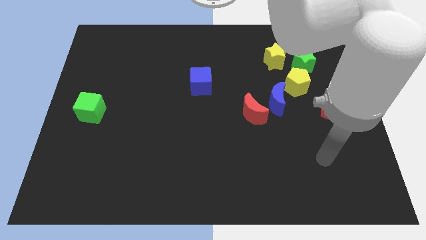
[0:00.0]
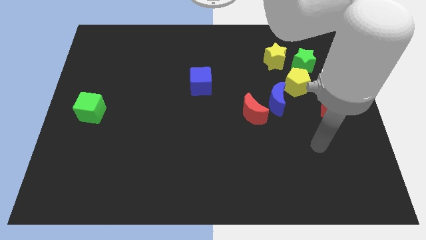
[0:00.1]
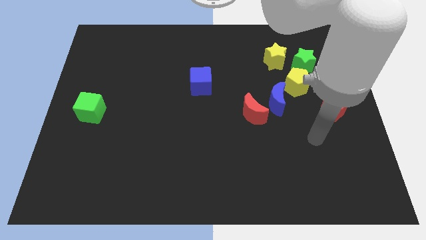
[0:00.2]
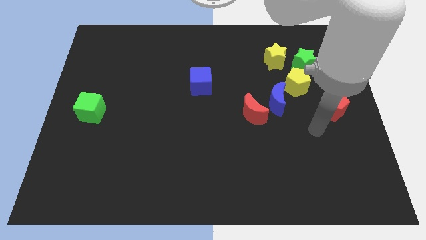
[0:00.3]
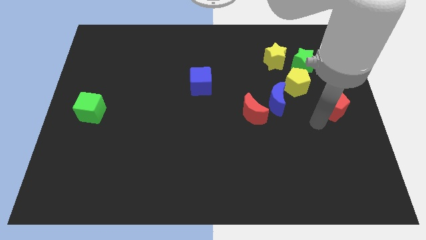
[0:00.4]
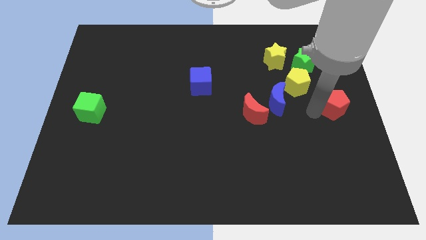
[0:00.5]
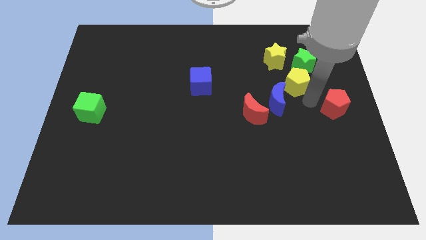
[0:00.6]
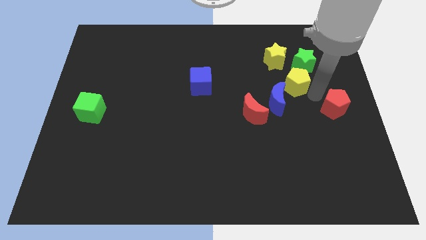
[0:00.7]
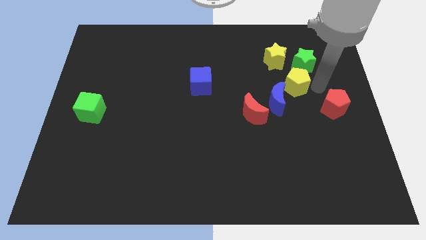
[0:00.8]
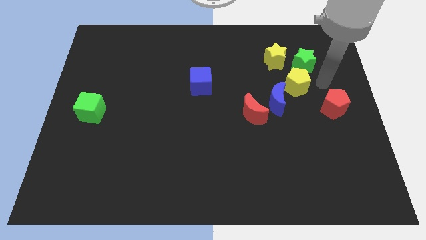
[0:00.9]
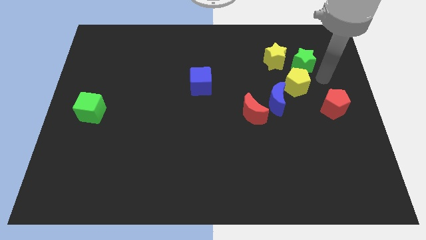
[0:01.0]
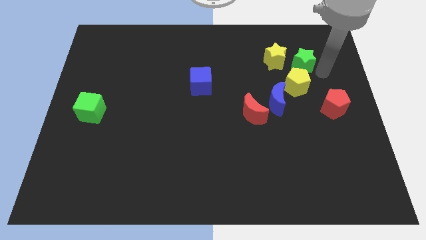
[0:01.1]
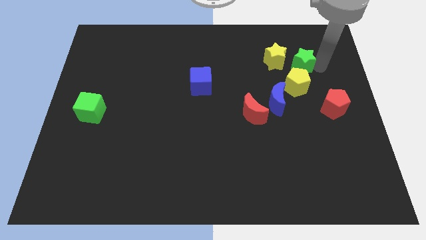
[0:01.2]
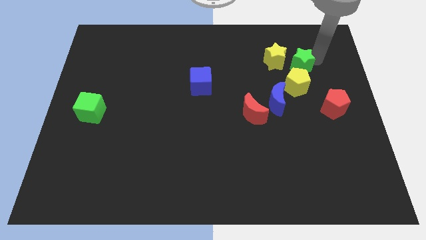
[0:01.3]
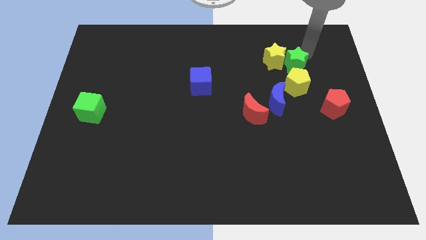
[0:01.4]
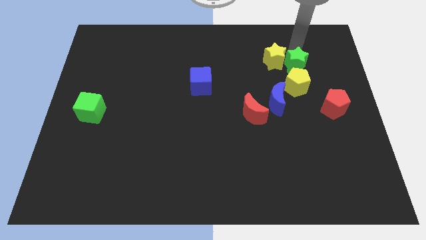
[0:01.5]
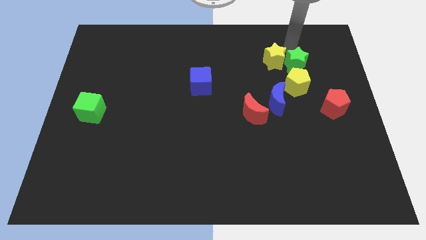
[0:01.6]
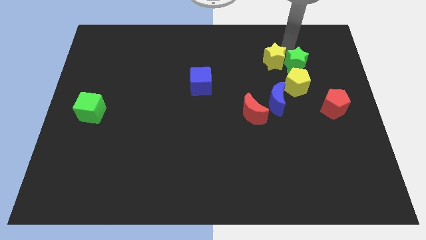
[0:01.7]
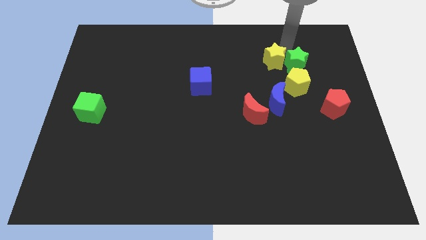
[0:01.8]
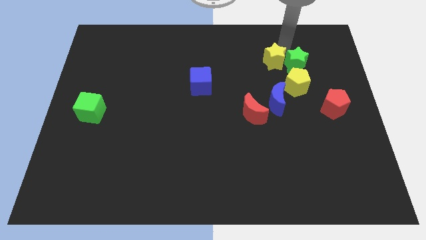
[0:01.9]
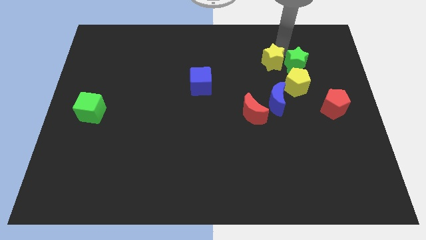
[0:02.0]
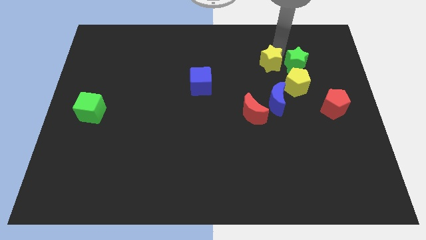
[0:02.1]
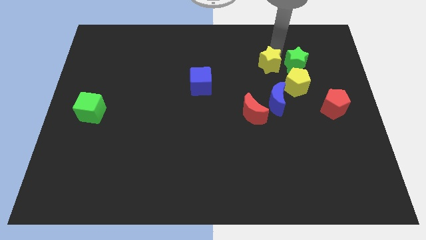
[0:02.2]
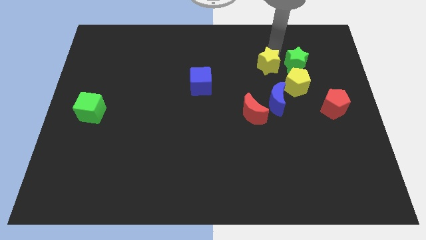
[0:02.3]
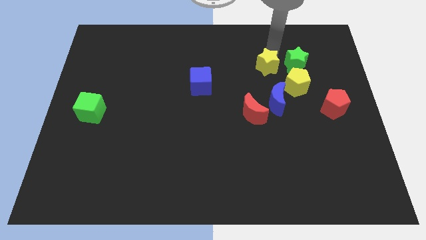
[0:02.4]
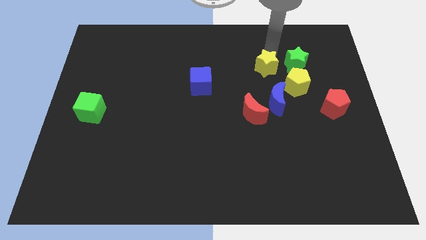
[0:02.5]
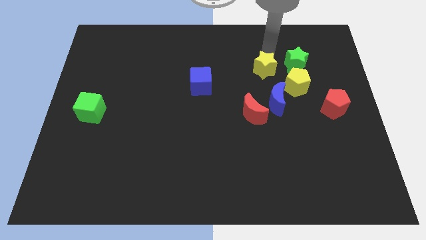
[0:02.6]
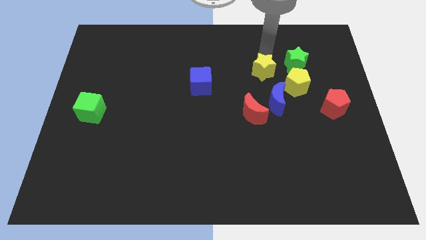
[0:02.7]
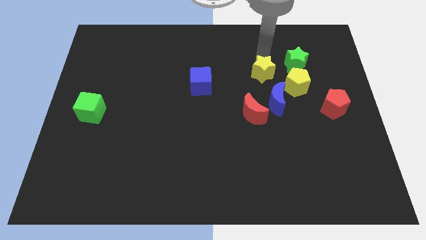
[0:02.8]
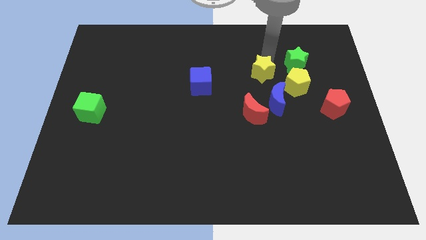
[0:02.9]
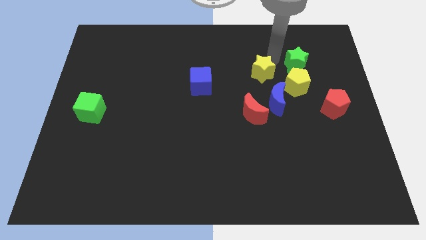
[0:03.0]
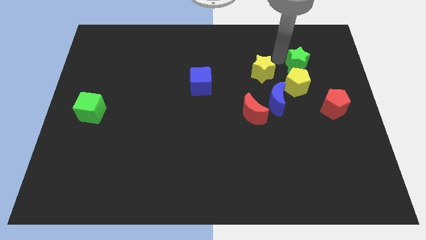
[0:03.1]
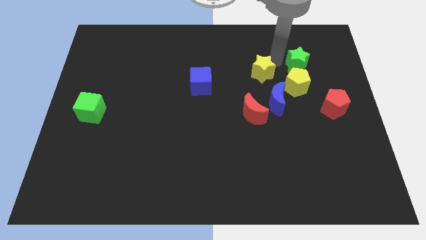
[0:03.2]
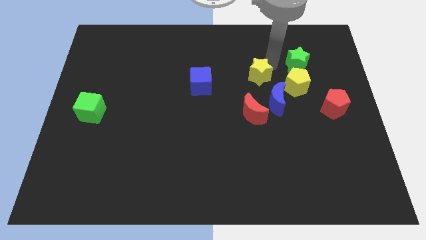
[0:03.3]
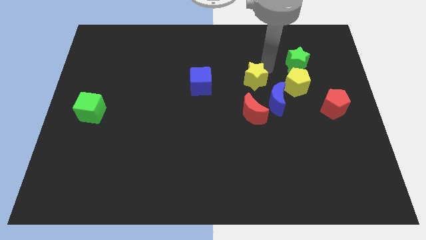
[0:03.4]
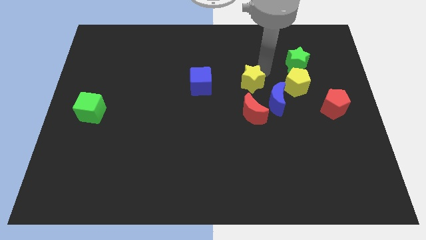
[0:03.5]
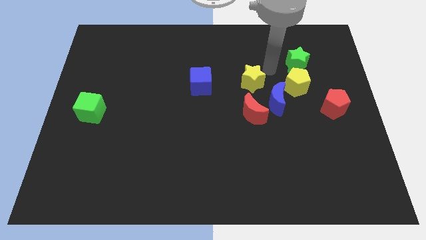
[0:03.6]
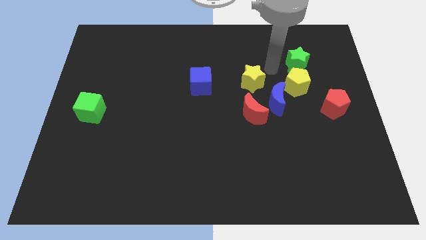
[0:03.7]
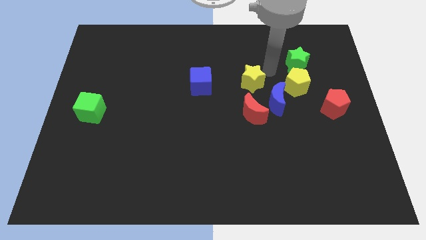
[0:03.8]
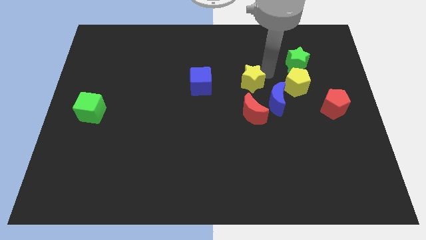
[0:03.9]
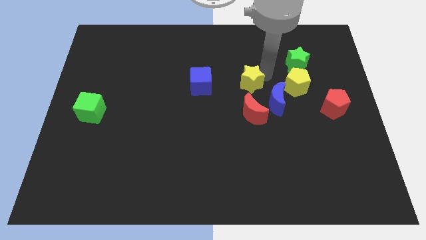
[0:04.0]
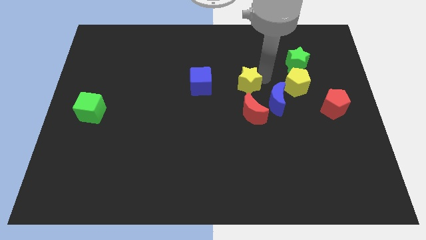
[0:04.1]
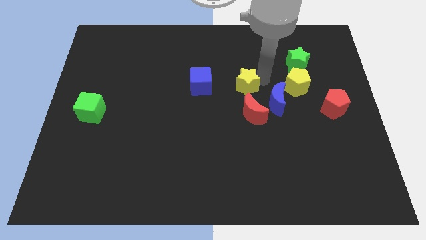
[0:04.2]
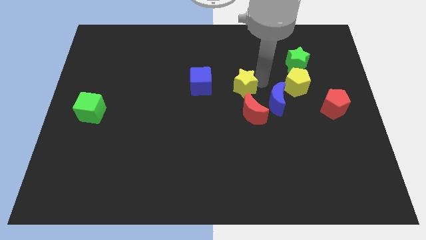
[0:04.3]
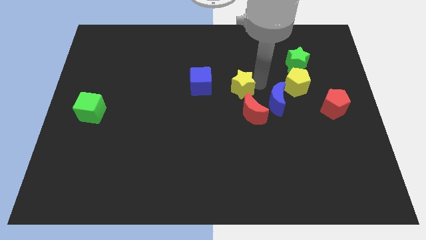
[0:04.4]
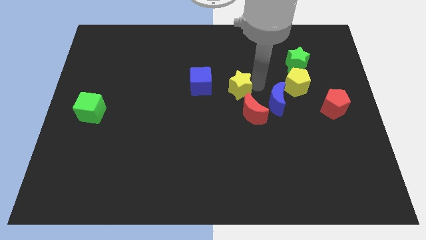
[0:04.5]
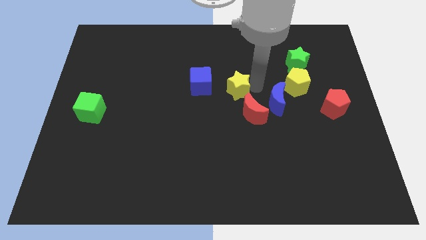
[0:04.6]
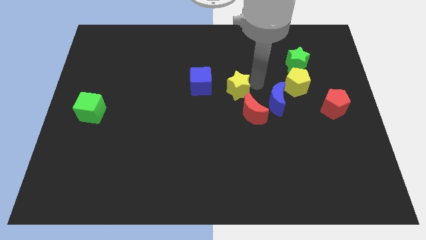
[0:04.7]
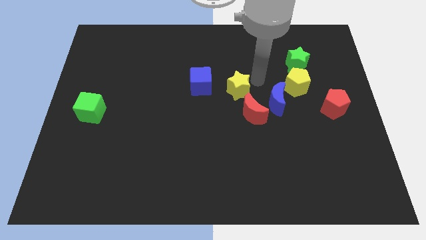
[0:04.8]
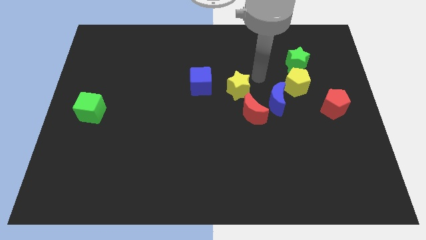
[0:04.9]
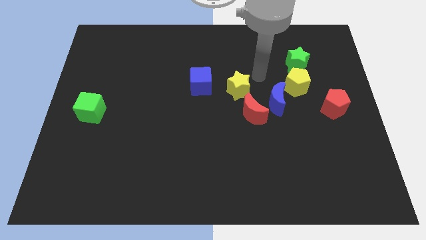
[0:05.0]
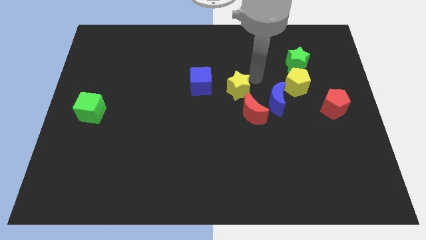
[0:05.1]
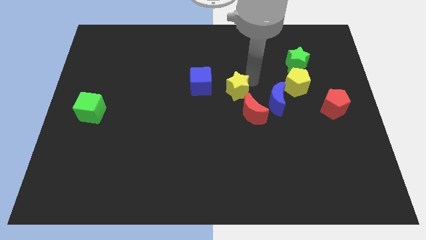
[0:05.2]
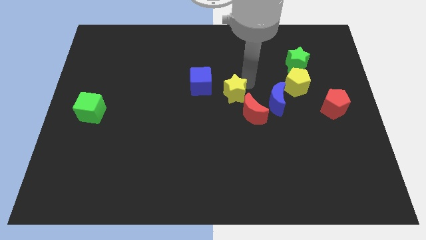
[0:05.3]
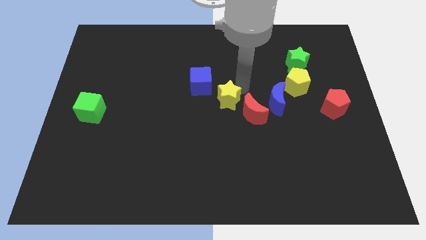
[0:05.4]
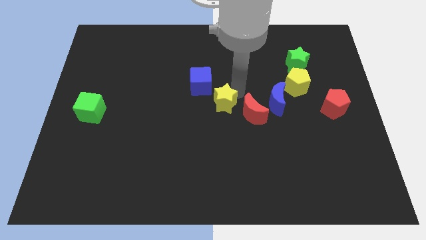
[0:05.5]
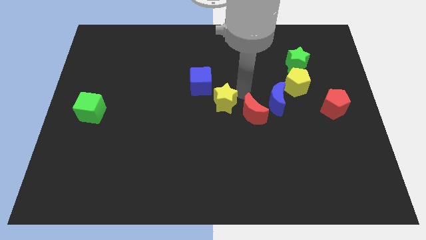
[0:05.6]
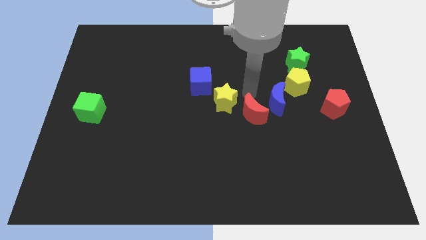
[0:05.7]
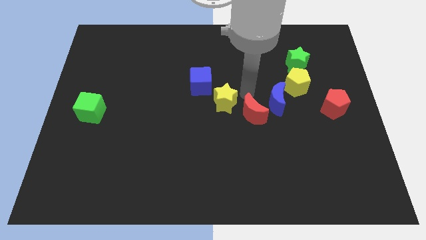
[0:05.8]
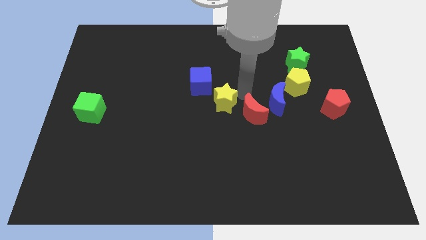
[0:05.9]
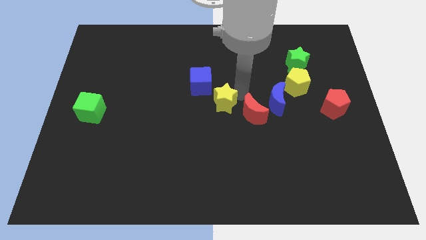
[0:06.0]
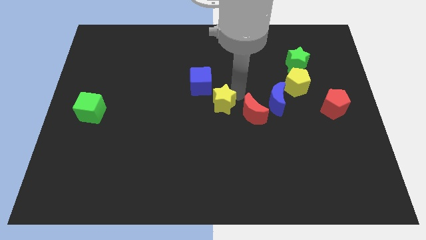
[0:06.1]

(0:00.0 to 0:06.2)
move the yellow star down and then to the left

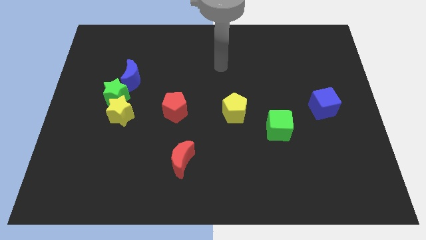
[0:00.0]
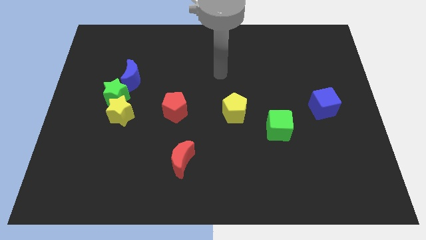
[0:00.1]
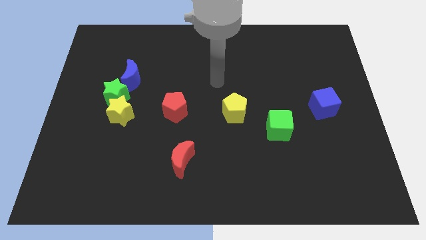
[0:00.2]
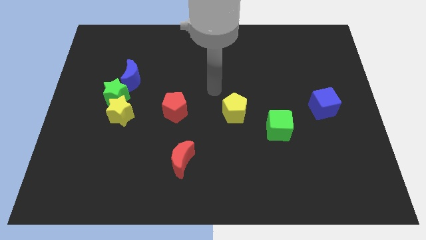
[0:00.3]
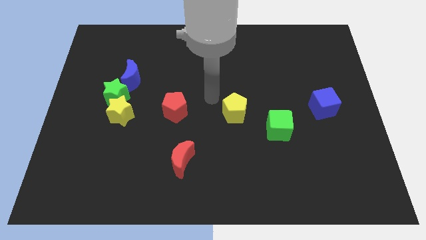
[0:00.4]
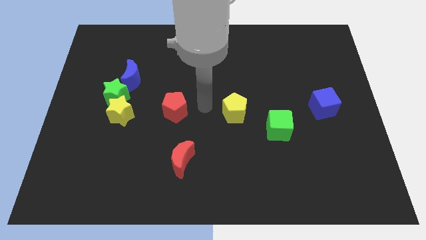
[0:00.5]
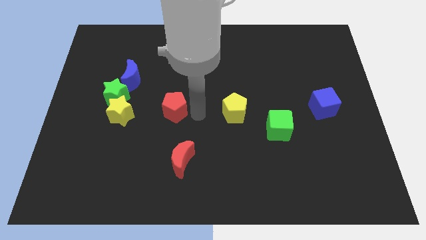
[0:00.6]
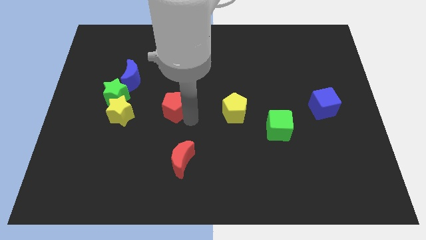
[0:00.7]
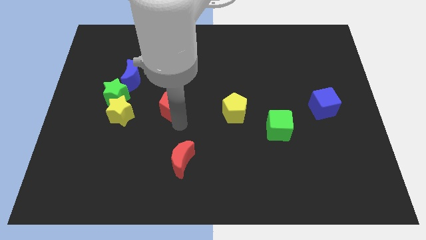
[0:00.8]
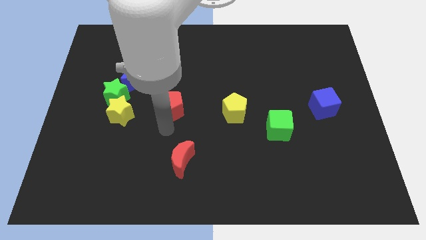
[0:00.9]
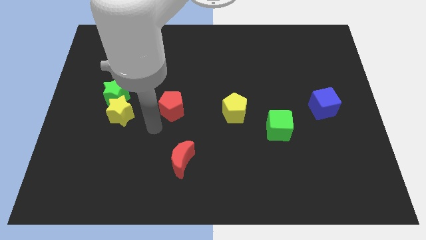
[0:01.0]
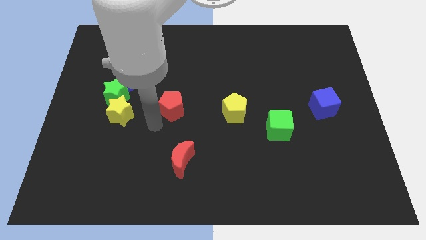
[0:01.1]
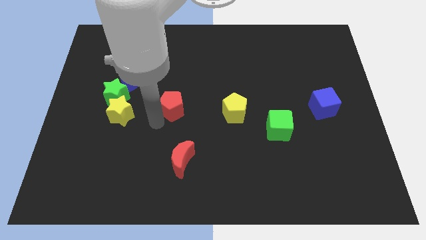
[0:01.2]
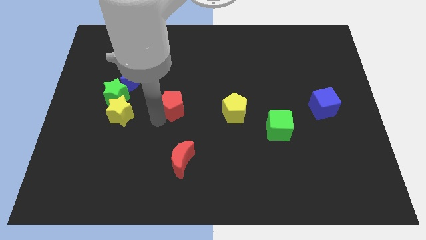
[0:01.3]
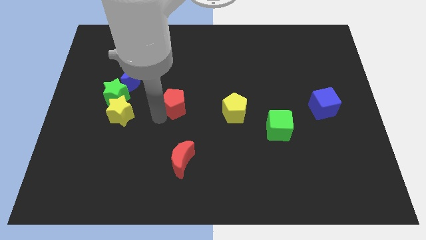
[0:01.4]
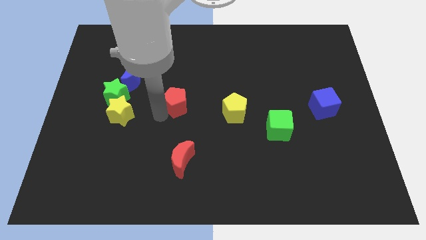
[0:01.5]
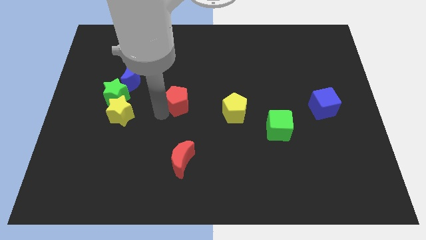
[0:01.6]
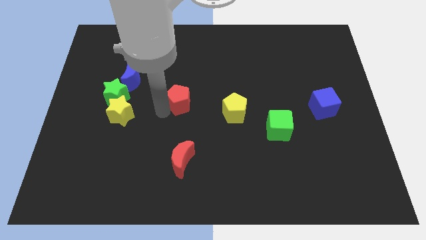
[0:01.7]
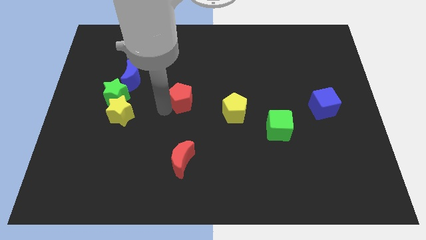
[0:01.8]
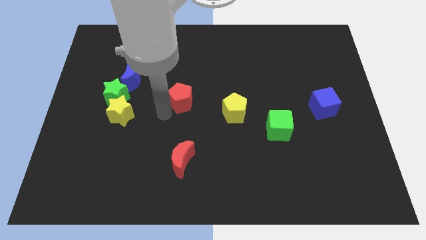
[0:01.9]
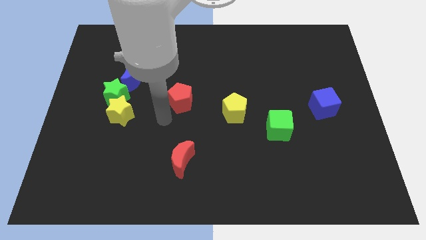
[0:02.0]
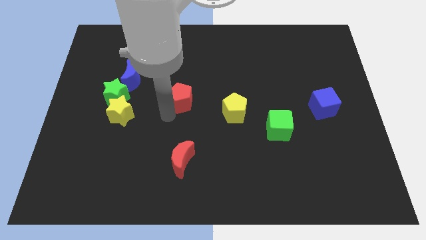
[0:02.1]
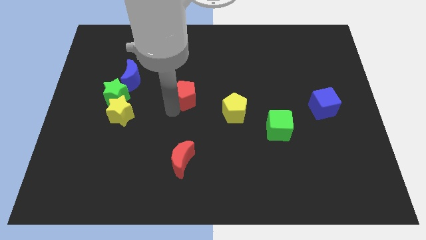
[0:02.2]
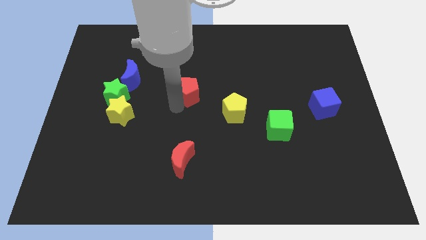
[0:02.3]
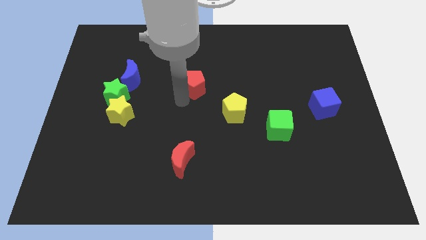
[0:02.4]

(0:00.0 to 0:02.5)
slightly move the red pentagon diagonally upwards and to the right
